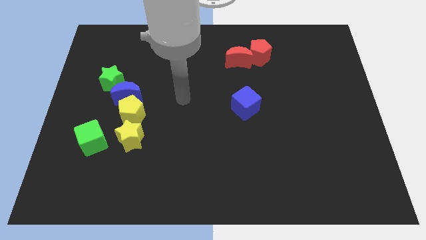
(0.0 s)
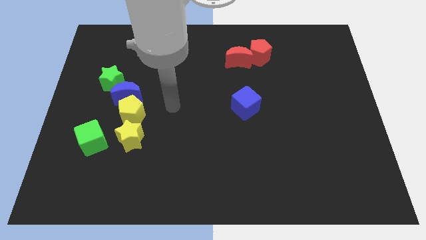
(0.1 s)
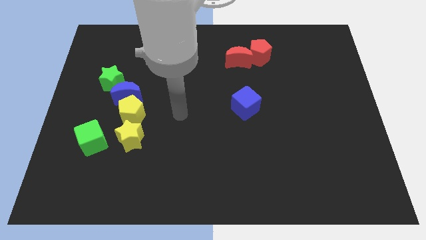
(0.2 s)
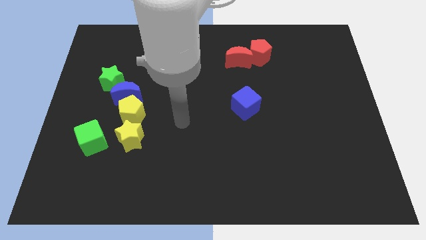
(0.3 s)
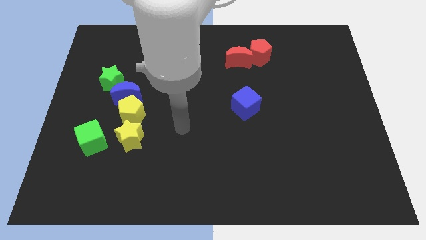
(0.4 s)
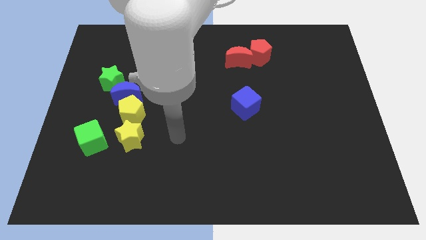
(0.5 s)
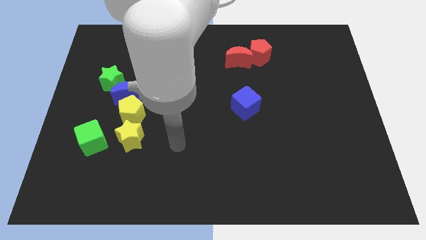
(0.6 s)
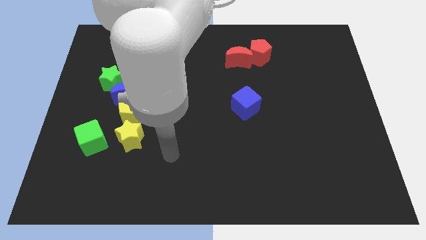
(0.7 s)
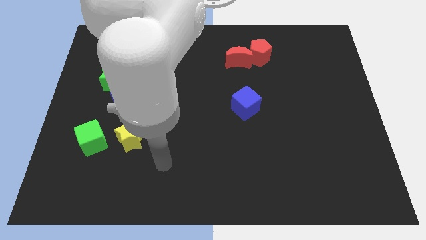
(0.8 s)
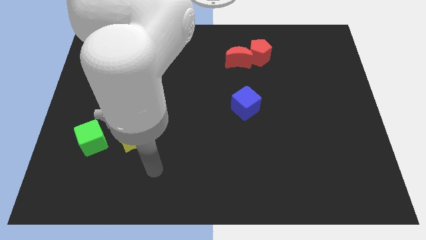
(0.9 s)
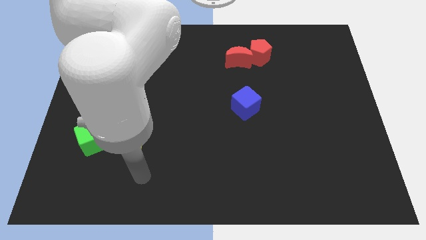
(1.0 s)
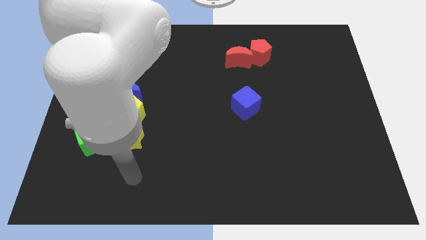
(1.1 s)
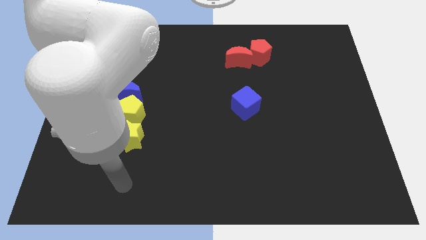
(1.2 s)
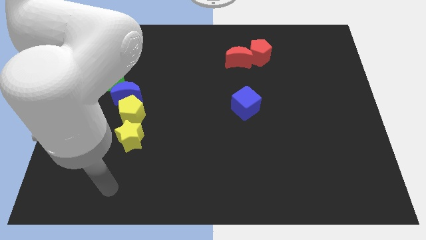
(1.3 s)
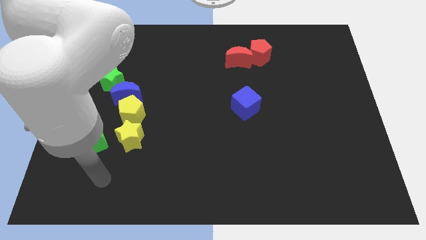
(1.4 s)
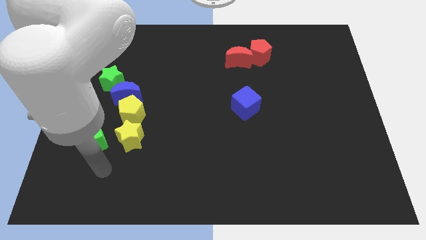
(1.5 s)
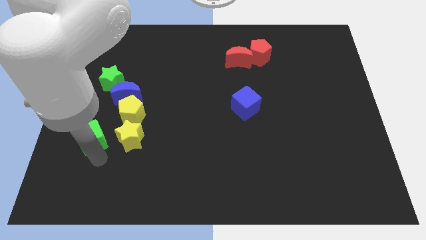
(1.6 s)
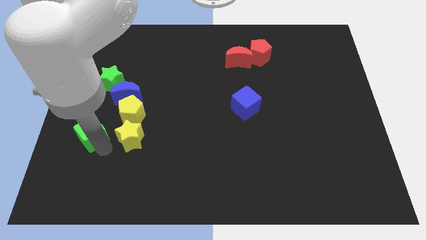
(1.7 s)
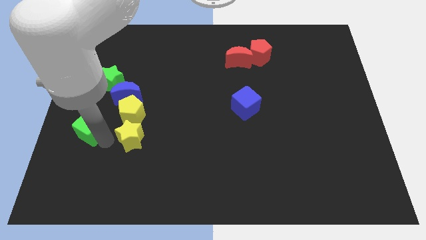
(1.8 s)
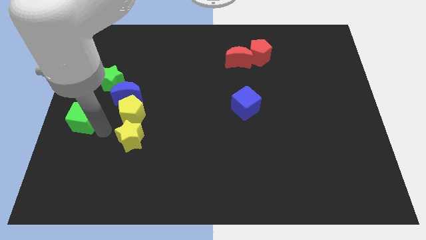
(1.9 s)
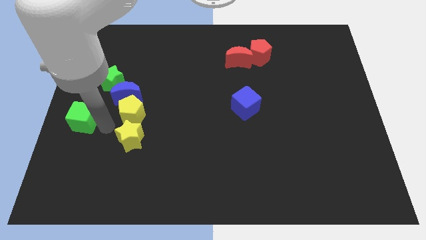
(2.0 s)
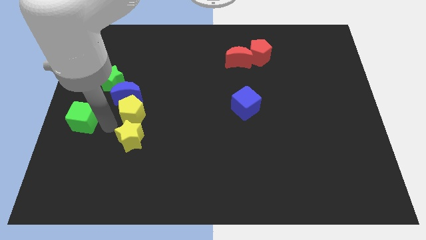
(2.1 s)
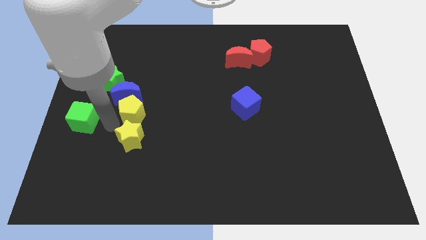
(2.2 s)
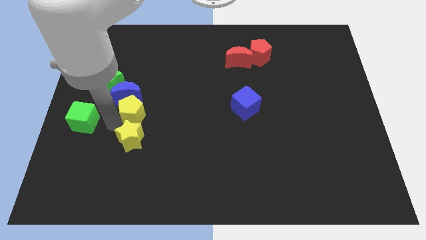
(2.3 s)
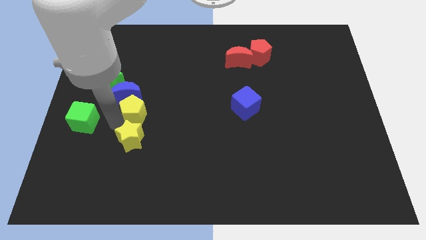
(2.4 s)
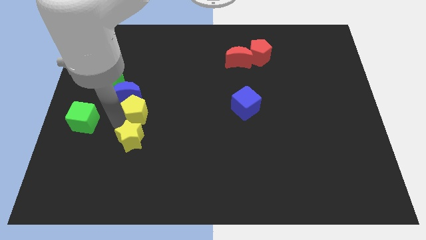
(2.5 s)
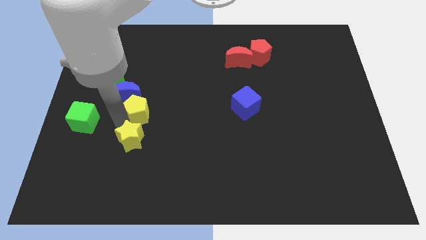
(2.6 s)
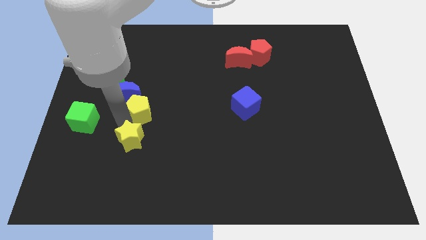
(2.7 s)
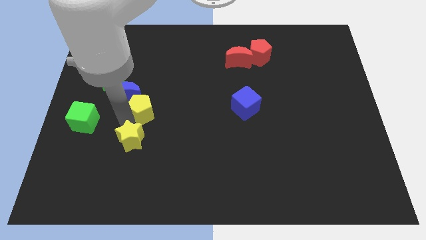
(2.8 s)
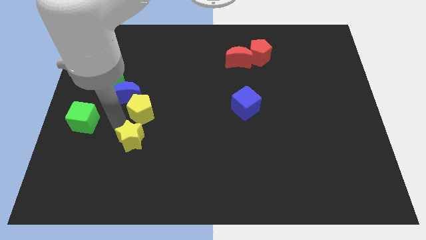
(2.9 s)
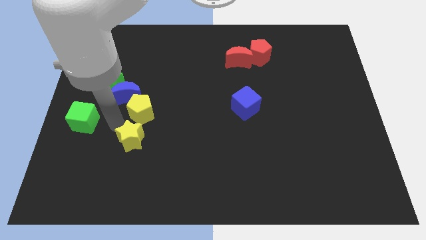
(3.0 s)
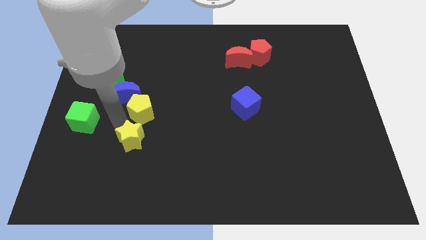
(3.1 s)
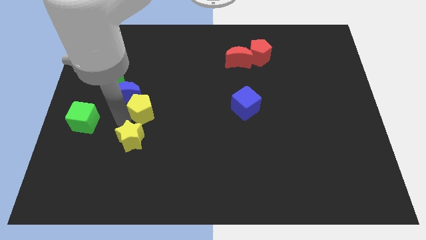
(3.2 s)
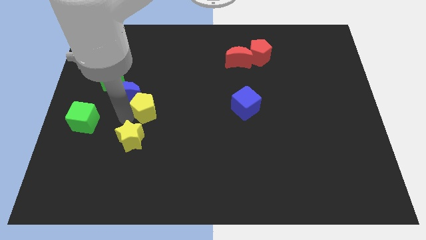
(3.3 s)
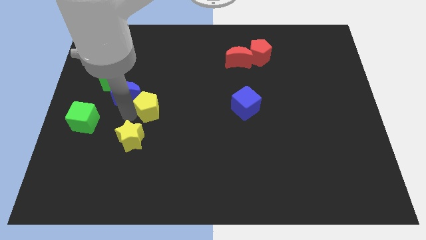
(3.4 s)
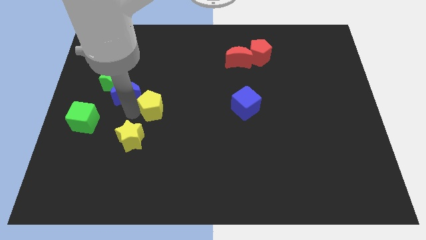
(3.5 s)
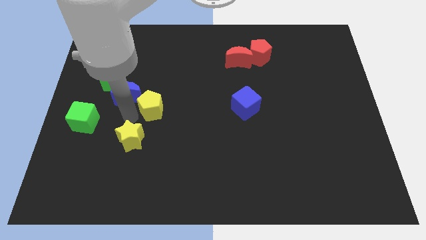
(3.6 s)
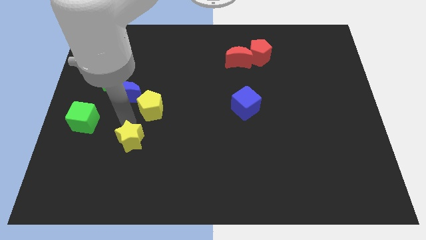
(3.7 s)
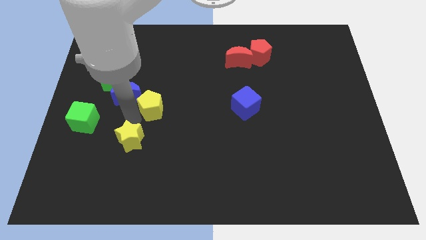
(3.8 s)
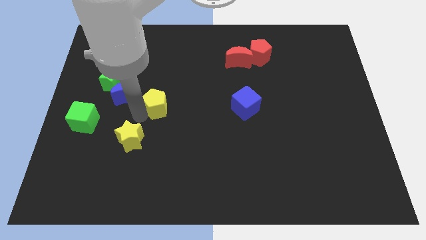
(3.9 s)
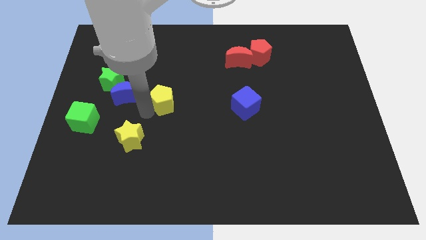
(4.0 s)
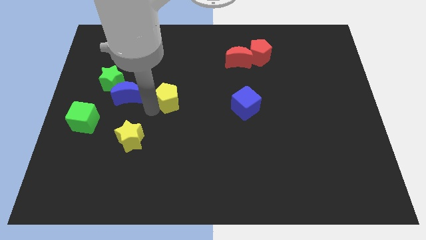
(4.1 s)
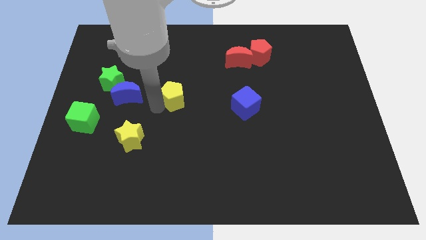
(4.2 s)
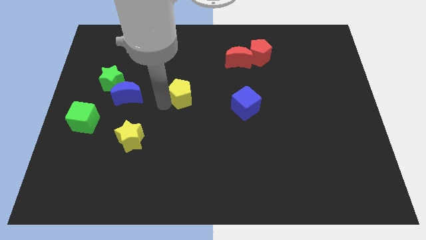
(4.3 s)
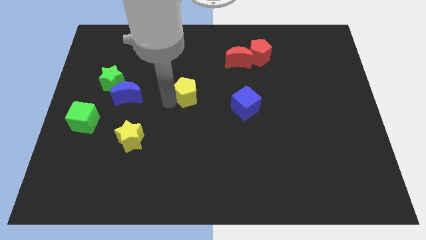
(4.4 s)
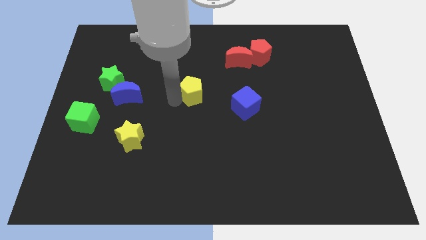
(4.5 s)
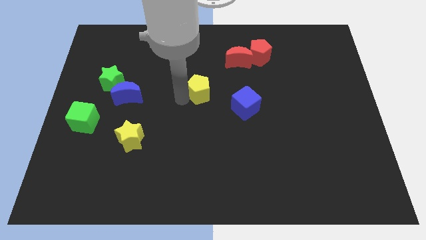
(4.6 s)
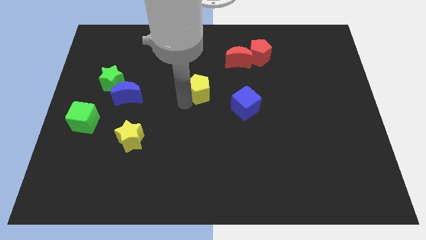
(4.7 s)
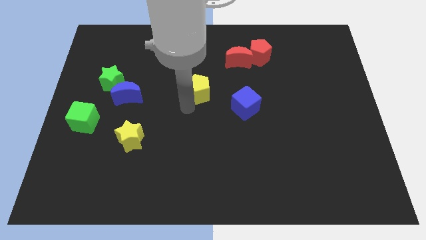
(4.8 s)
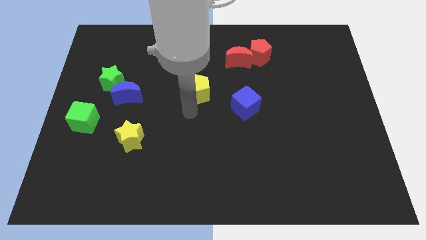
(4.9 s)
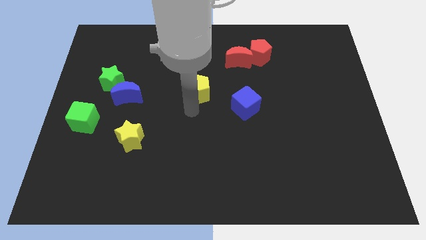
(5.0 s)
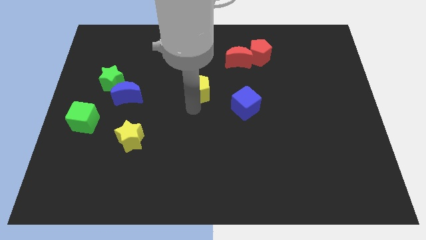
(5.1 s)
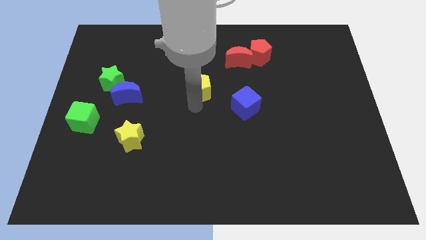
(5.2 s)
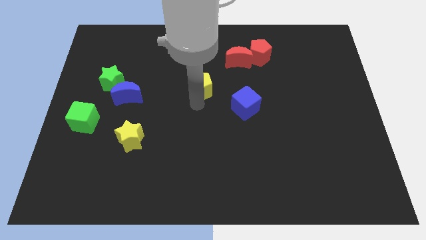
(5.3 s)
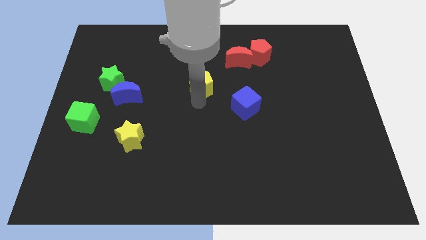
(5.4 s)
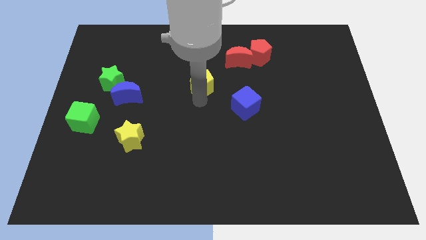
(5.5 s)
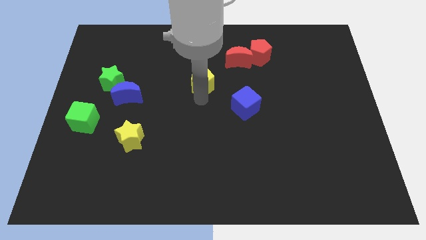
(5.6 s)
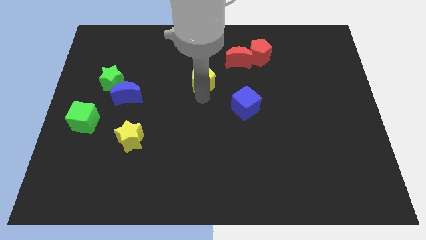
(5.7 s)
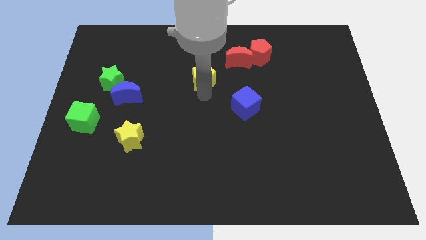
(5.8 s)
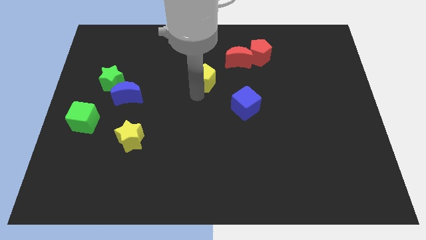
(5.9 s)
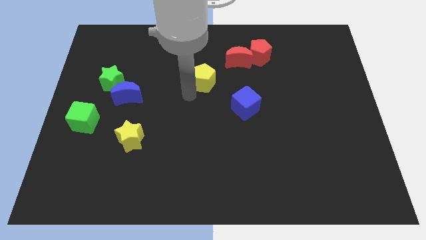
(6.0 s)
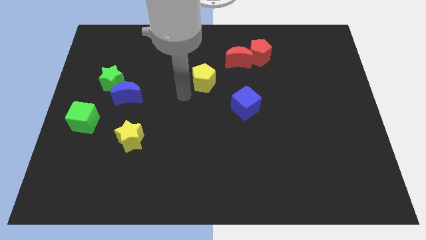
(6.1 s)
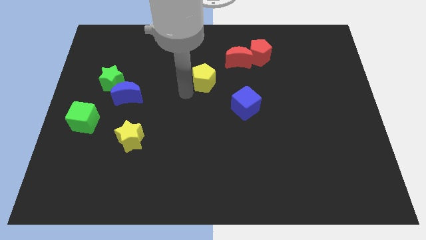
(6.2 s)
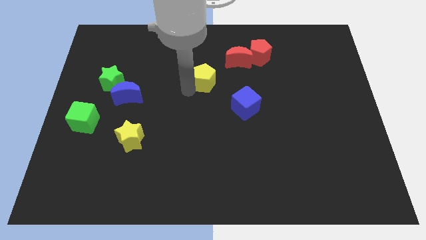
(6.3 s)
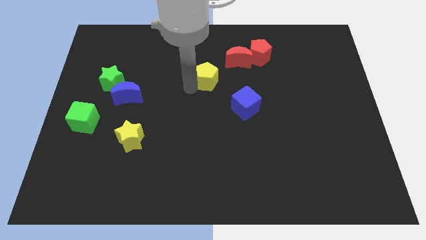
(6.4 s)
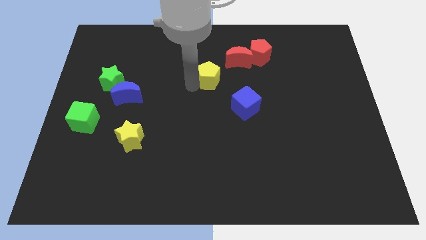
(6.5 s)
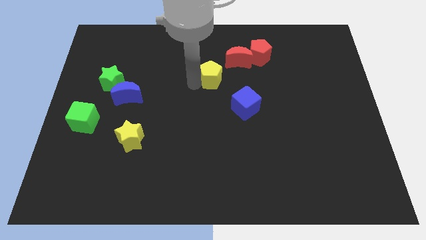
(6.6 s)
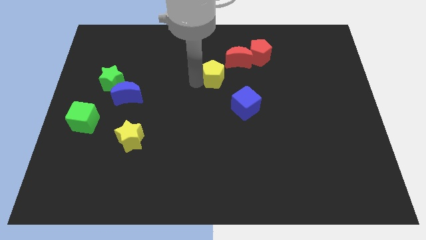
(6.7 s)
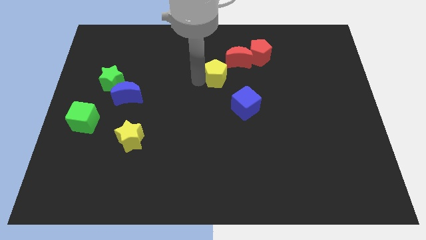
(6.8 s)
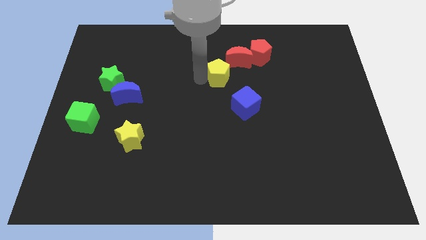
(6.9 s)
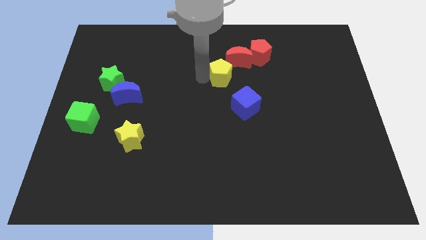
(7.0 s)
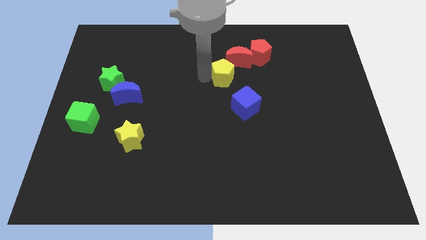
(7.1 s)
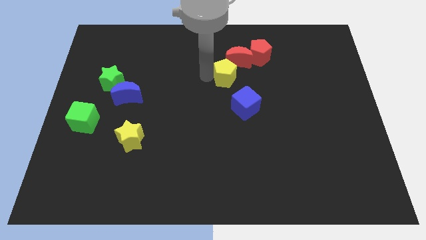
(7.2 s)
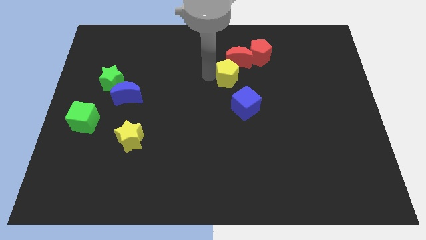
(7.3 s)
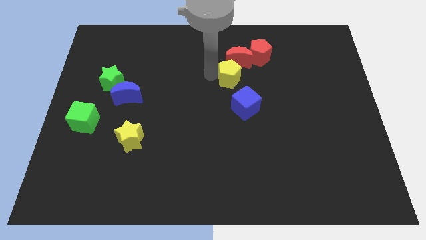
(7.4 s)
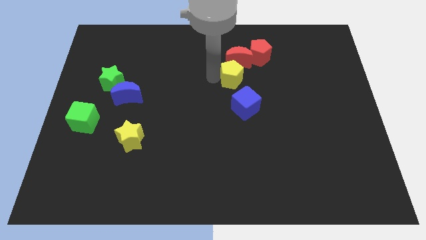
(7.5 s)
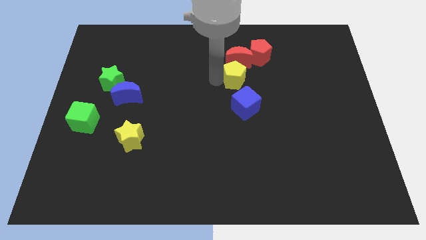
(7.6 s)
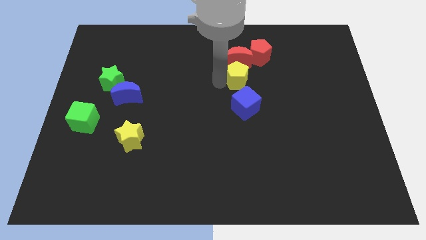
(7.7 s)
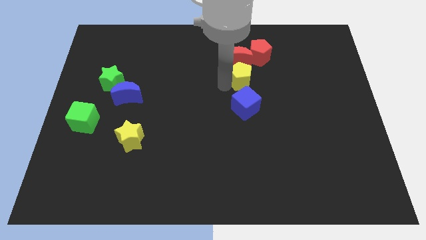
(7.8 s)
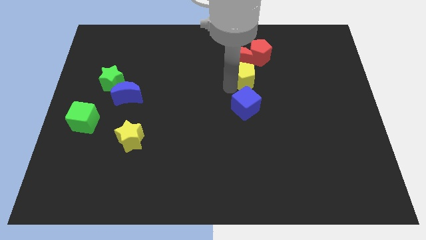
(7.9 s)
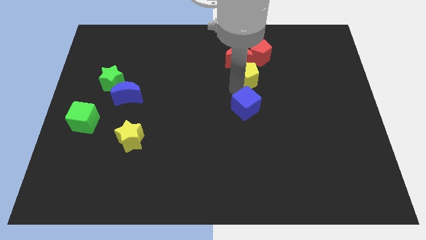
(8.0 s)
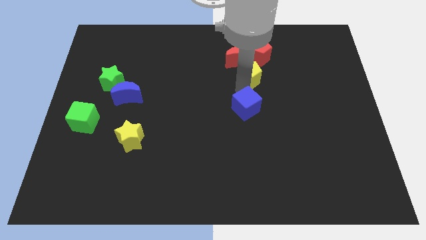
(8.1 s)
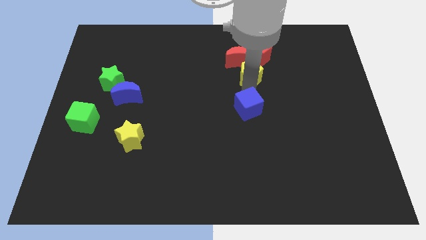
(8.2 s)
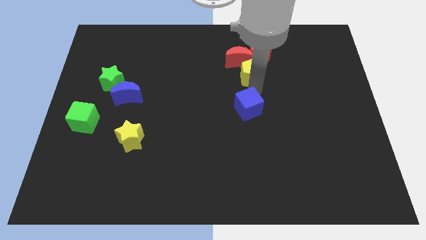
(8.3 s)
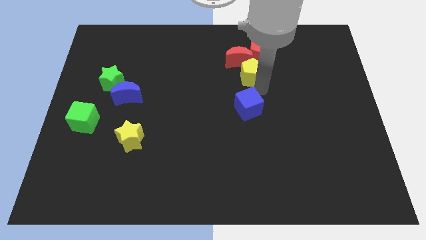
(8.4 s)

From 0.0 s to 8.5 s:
move the yellow pentagon close to the red moon
